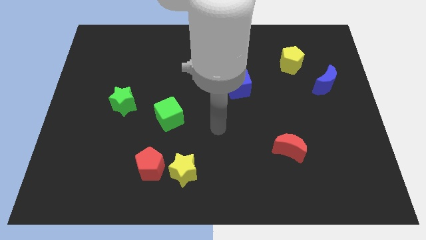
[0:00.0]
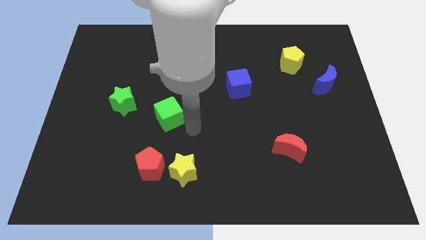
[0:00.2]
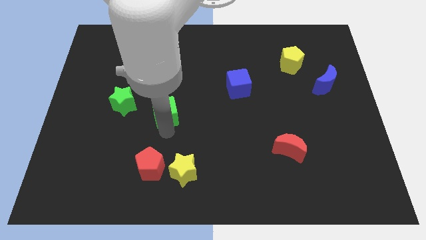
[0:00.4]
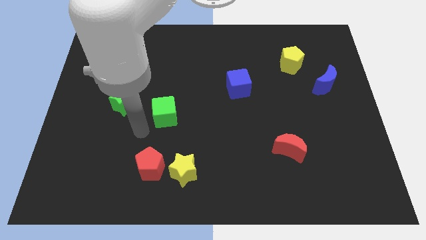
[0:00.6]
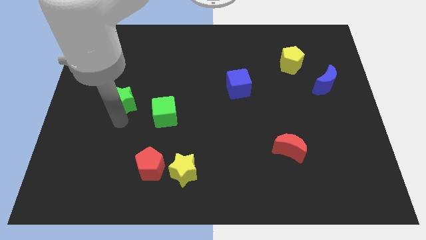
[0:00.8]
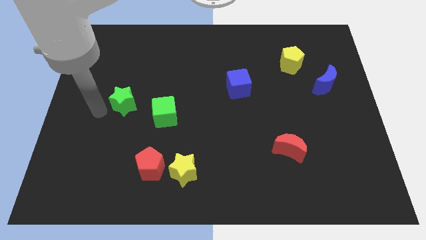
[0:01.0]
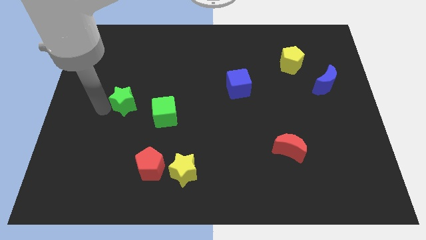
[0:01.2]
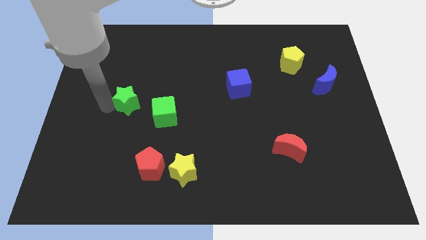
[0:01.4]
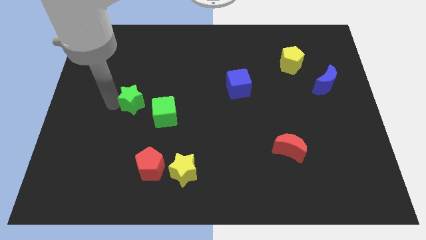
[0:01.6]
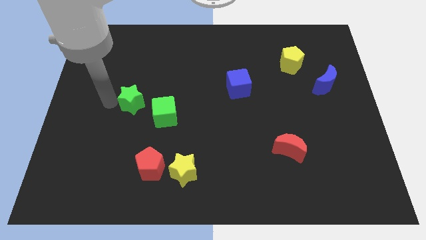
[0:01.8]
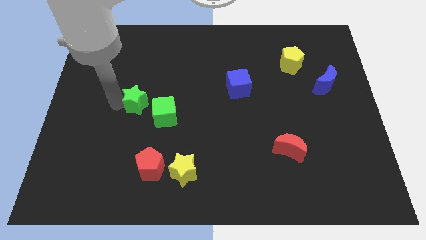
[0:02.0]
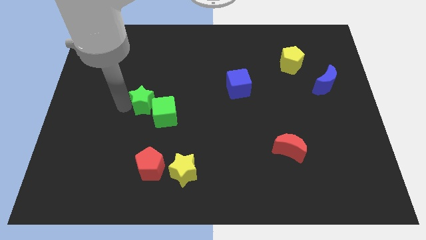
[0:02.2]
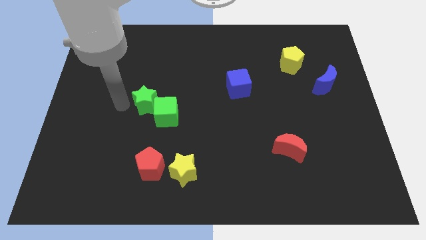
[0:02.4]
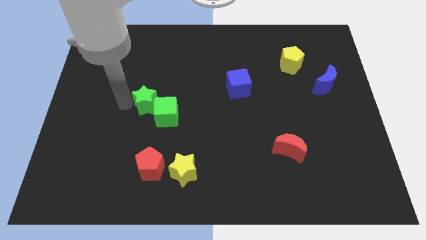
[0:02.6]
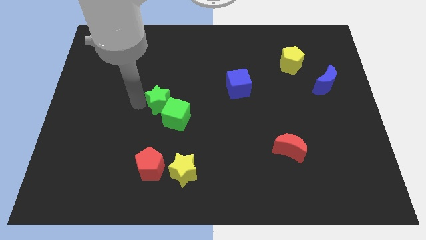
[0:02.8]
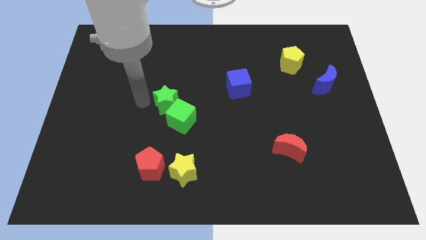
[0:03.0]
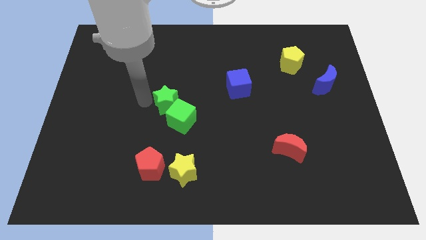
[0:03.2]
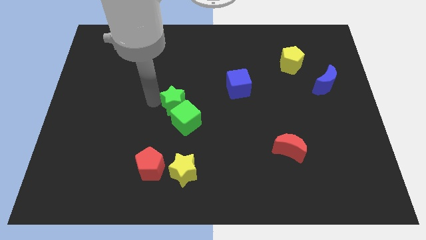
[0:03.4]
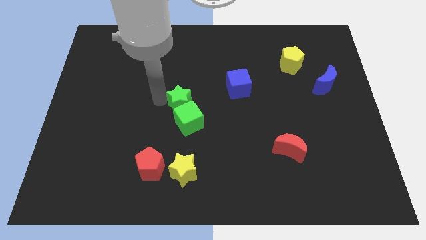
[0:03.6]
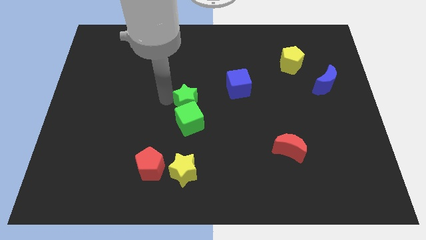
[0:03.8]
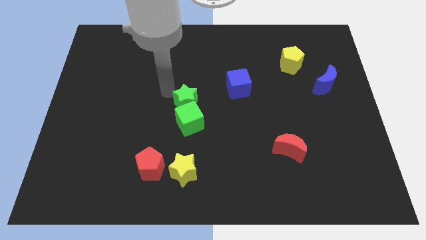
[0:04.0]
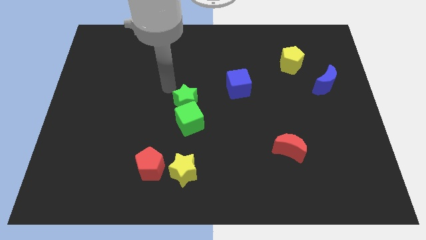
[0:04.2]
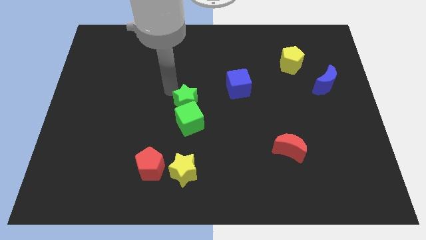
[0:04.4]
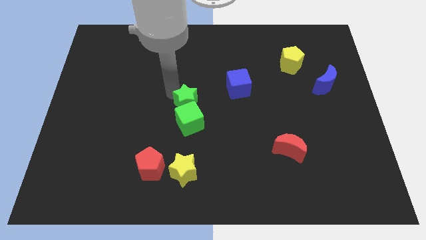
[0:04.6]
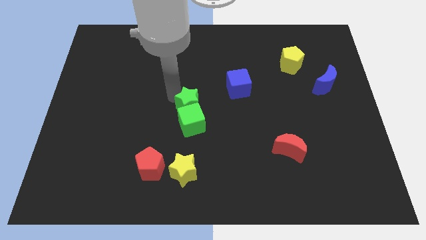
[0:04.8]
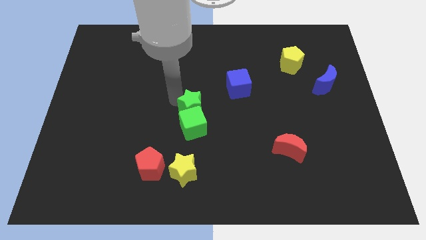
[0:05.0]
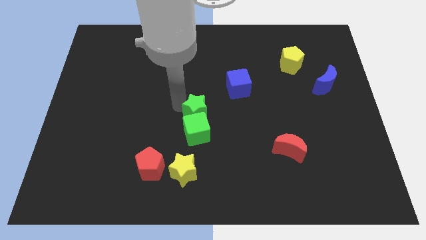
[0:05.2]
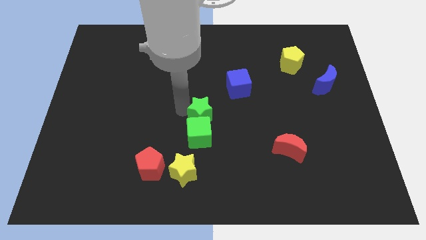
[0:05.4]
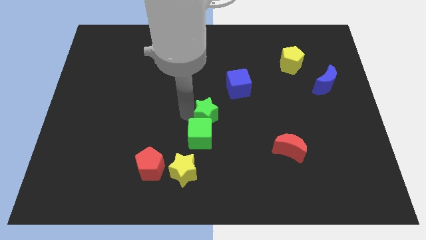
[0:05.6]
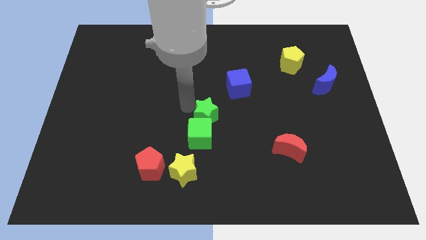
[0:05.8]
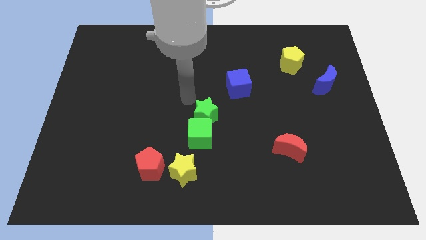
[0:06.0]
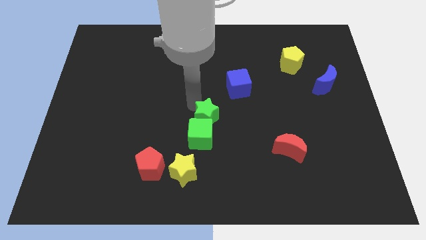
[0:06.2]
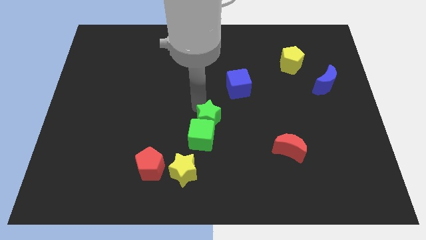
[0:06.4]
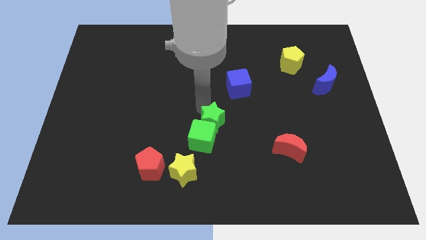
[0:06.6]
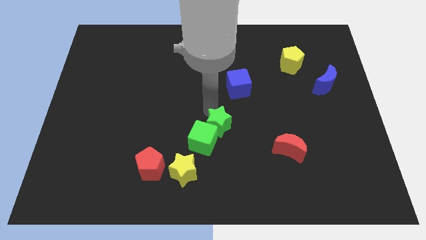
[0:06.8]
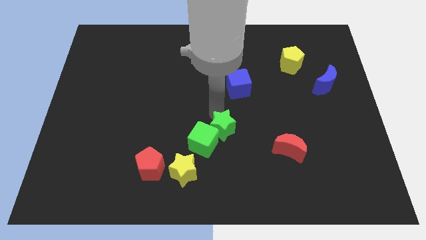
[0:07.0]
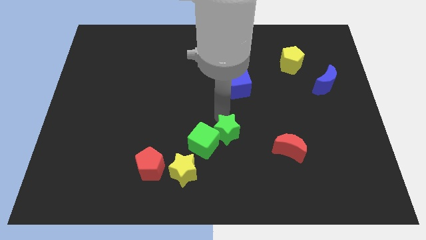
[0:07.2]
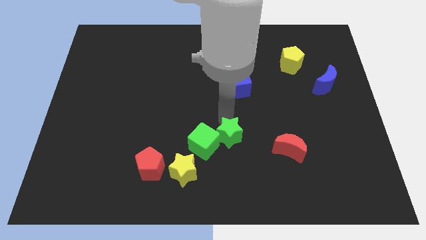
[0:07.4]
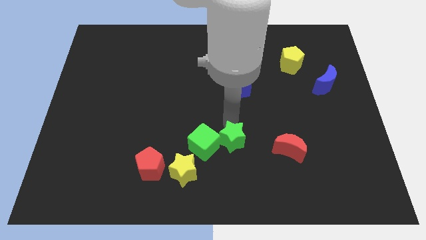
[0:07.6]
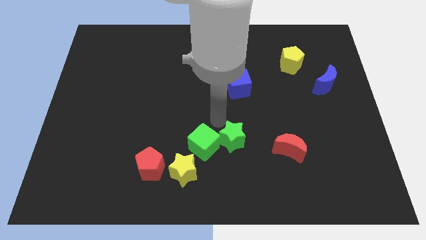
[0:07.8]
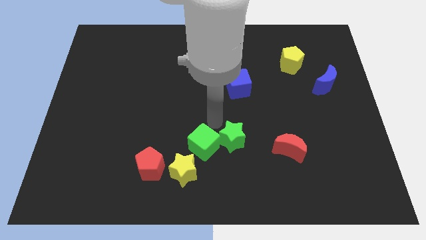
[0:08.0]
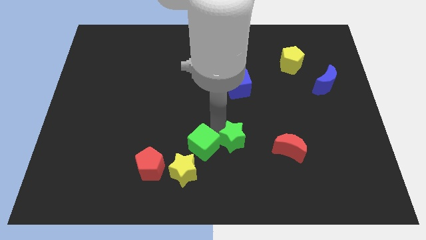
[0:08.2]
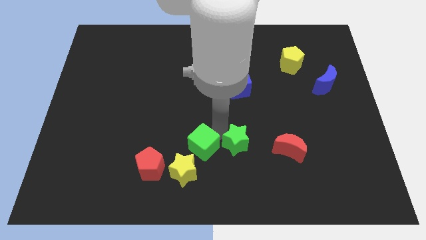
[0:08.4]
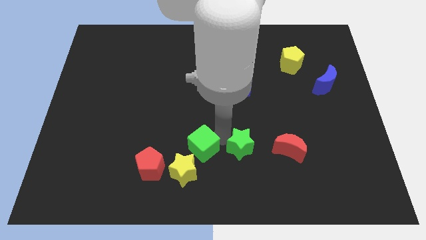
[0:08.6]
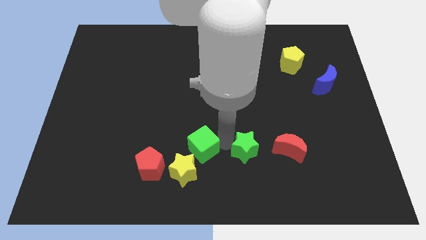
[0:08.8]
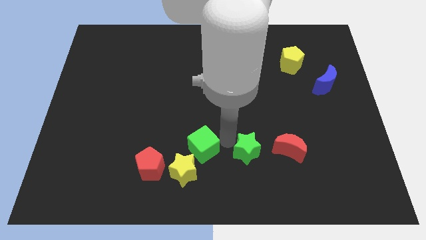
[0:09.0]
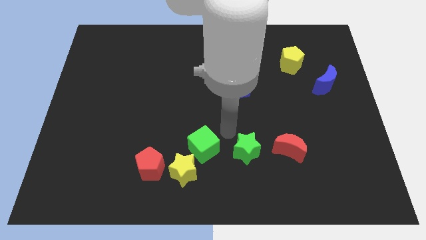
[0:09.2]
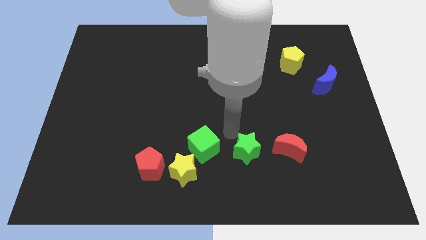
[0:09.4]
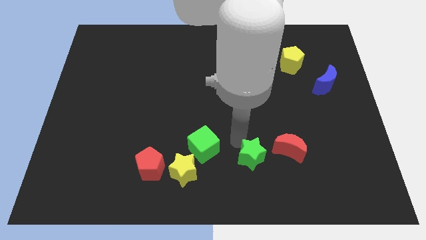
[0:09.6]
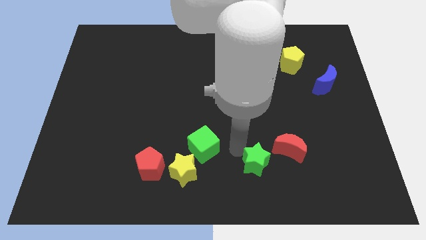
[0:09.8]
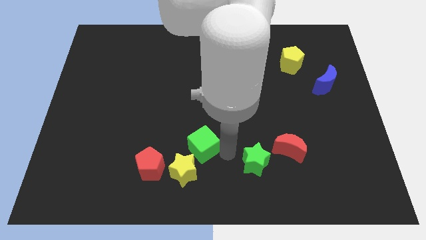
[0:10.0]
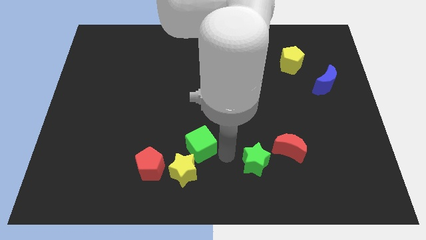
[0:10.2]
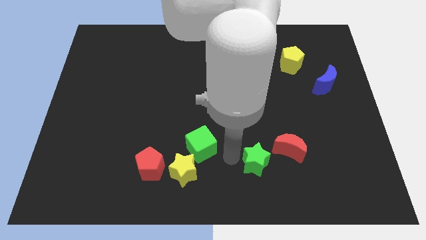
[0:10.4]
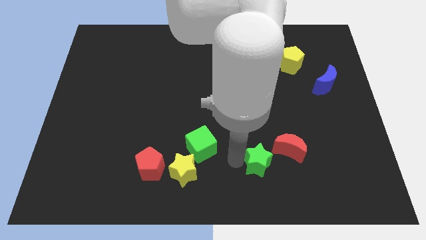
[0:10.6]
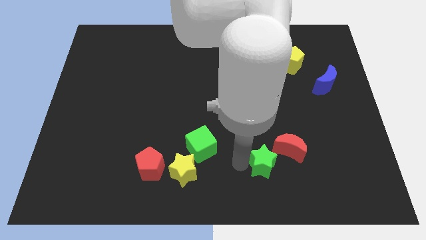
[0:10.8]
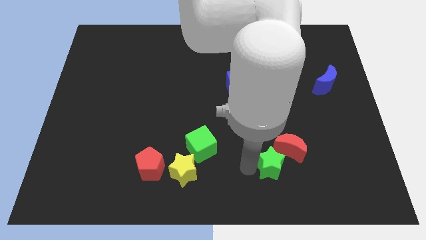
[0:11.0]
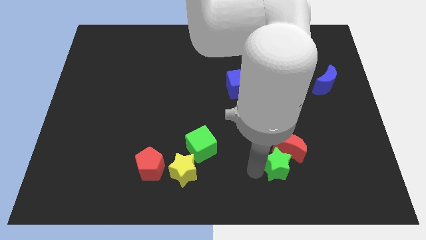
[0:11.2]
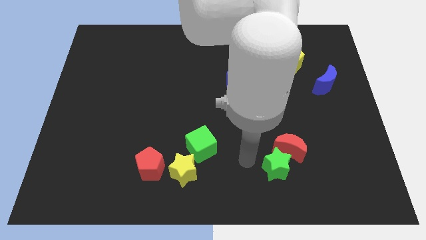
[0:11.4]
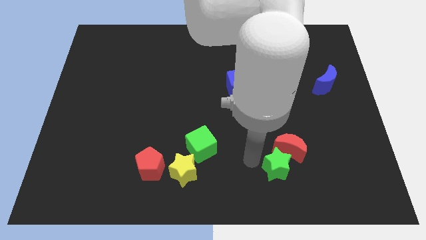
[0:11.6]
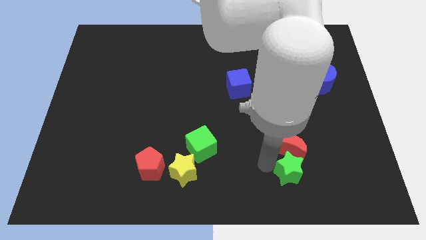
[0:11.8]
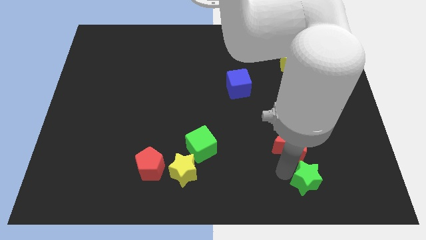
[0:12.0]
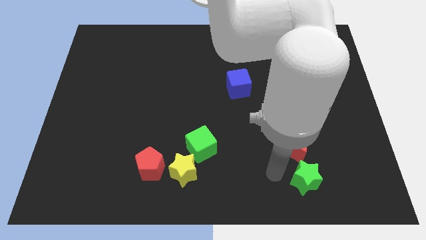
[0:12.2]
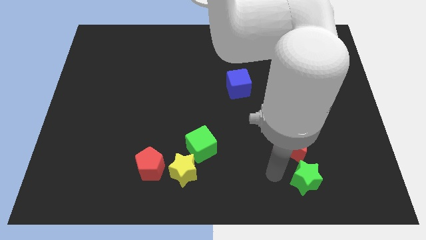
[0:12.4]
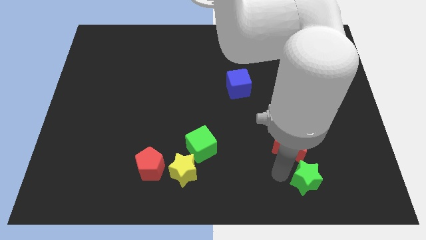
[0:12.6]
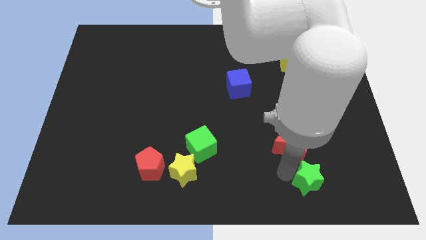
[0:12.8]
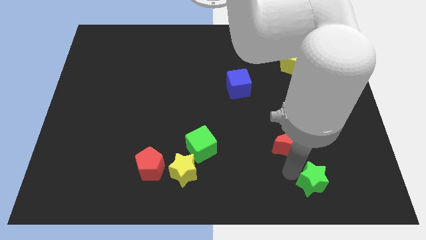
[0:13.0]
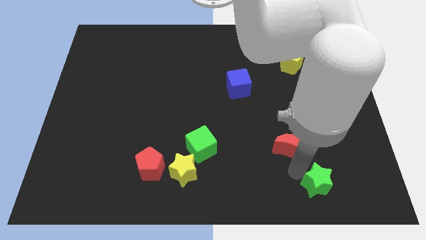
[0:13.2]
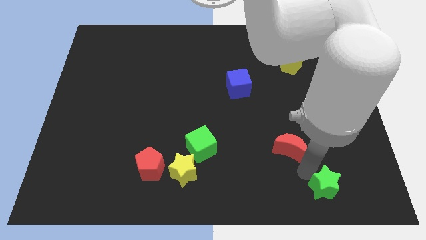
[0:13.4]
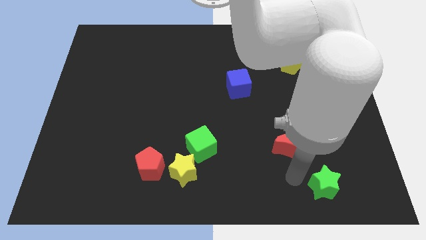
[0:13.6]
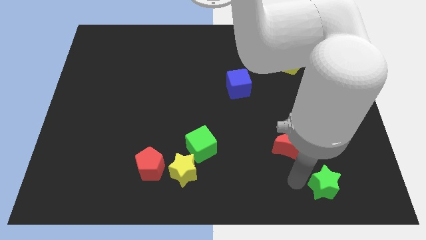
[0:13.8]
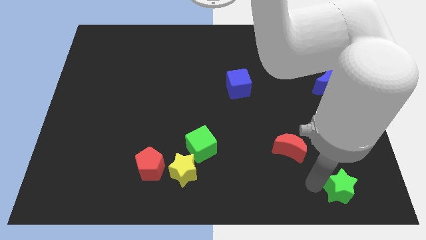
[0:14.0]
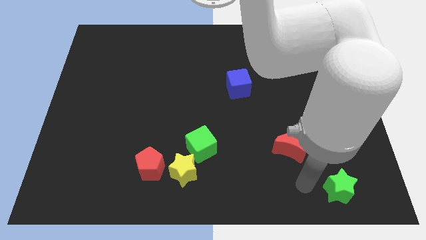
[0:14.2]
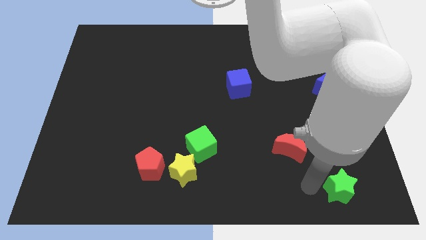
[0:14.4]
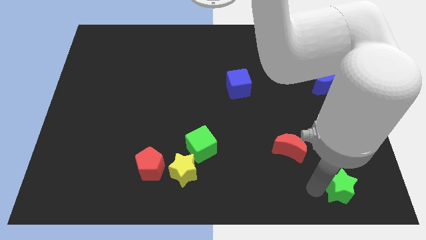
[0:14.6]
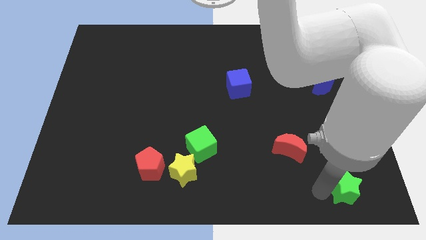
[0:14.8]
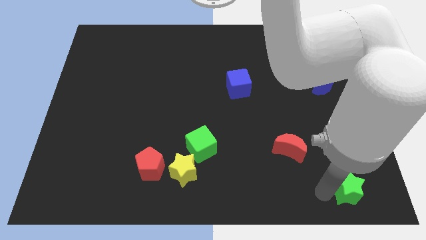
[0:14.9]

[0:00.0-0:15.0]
put the green star to the lower right corner
